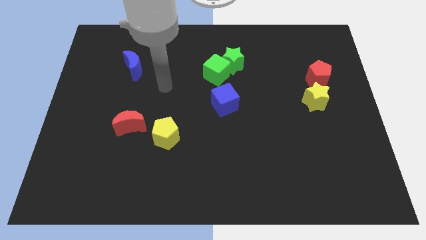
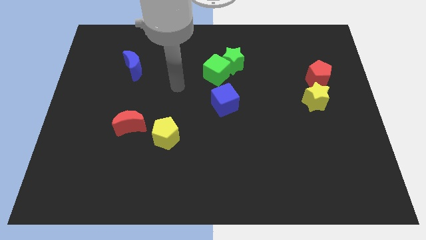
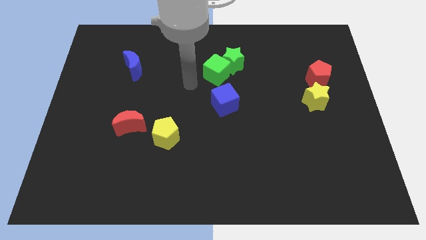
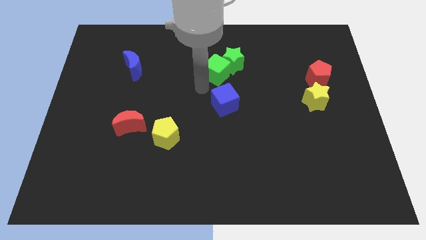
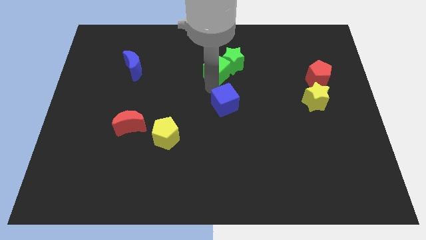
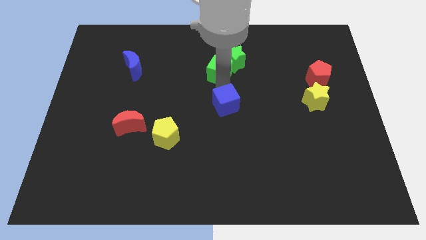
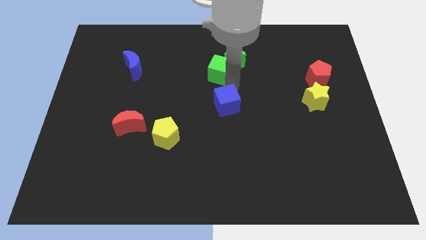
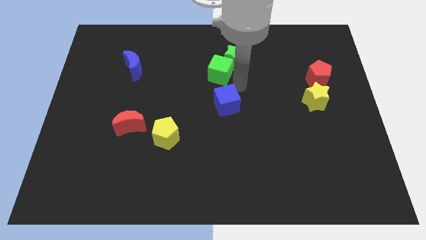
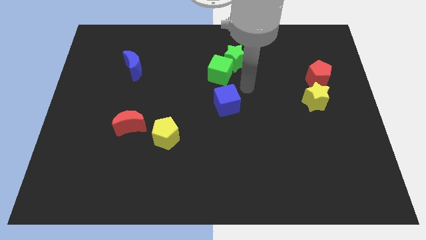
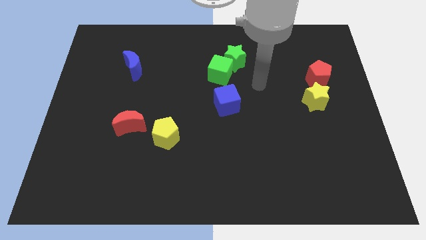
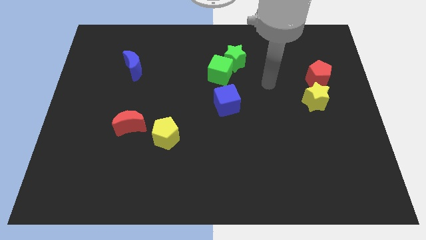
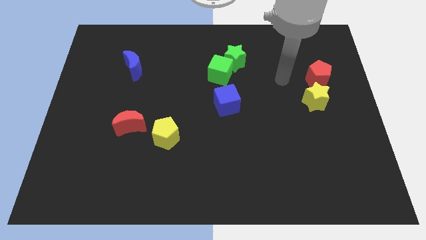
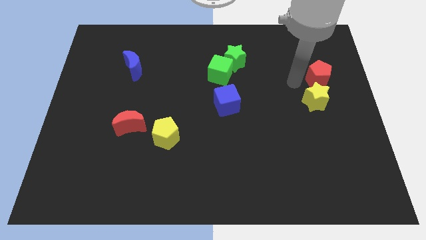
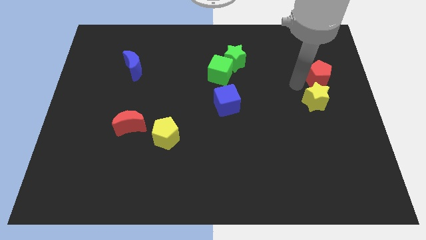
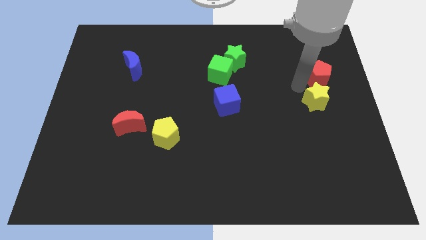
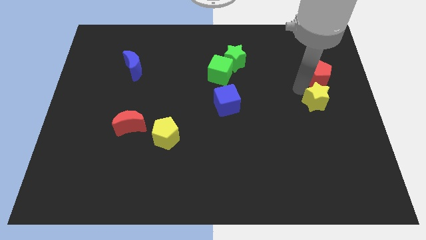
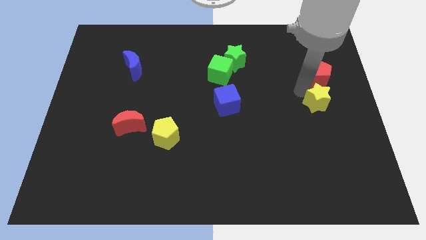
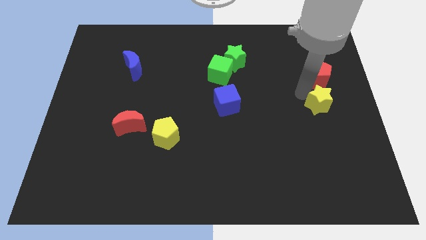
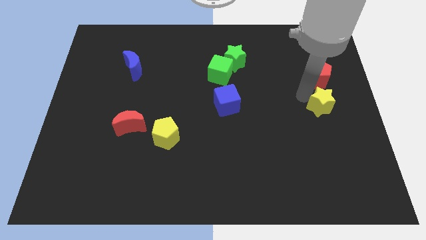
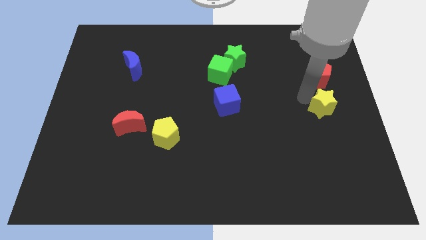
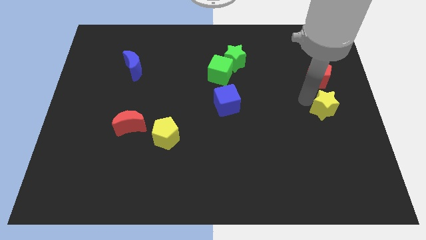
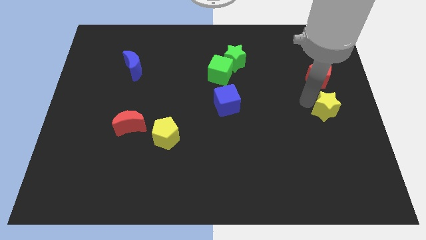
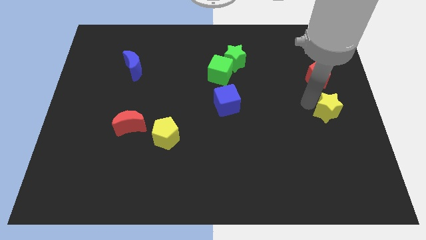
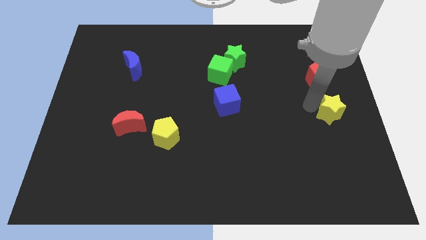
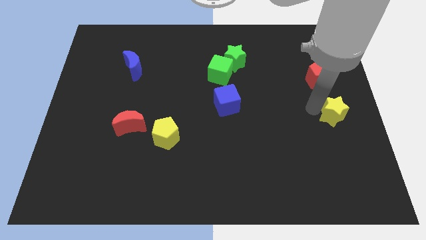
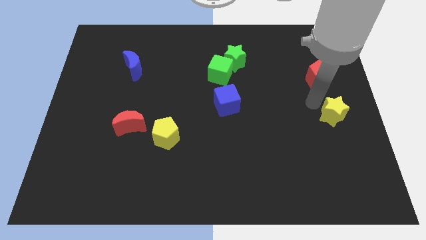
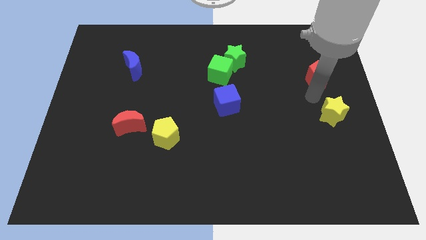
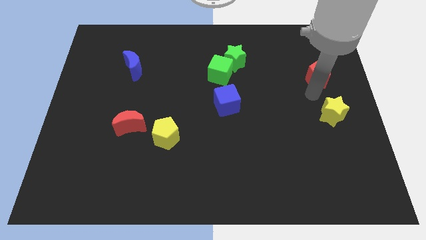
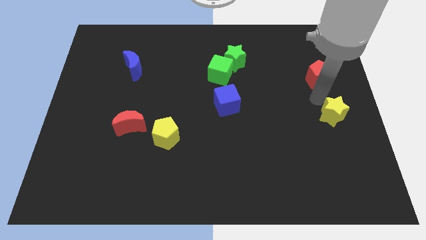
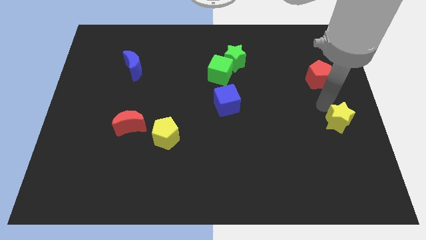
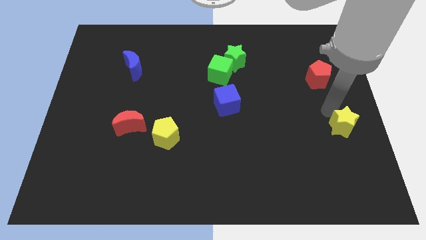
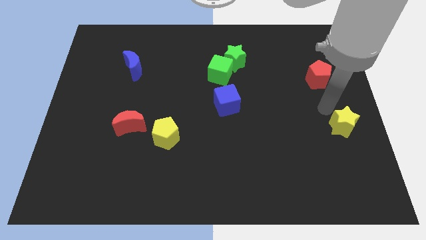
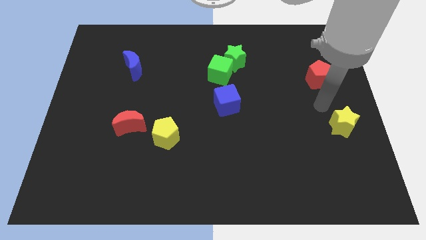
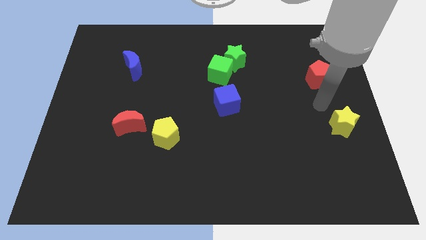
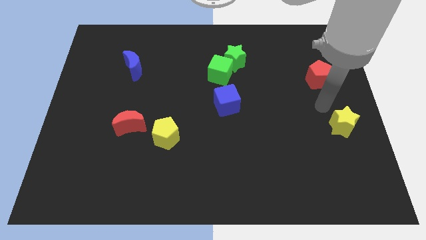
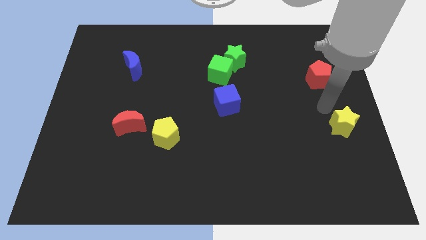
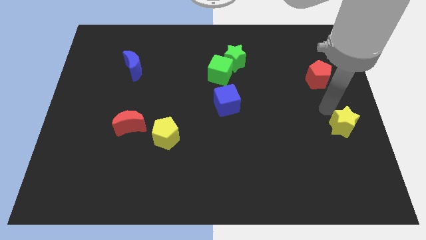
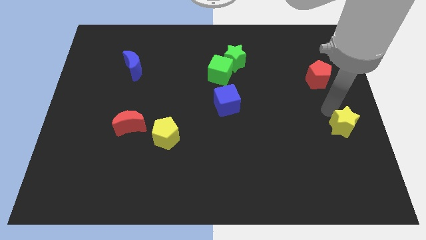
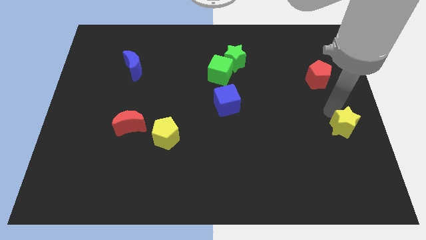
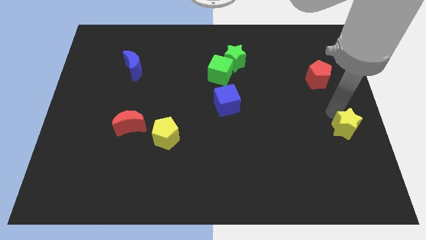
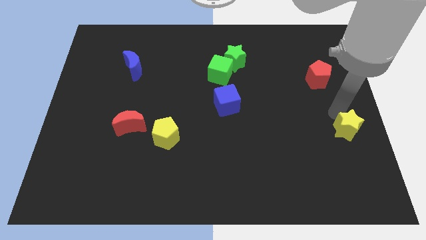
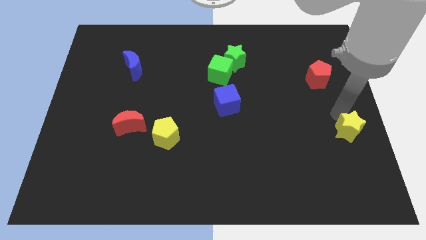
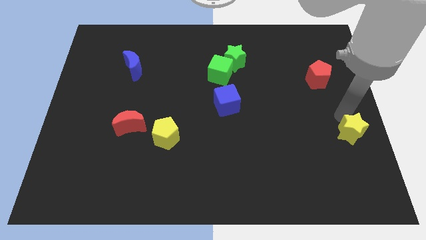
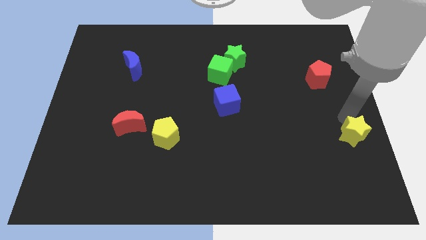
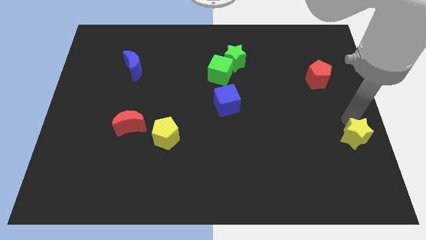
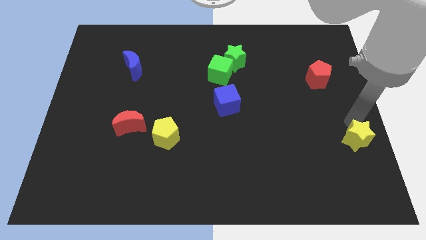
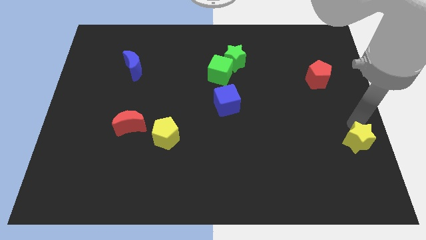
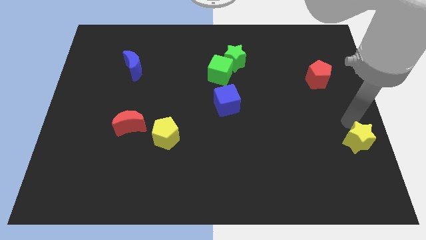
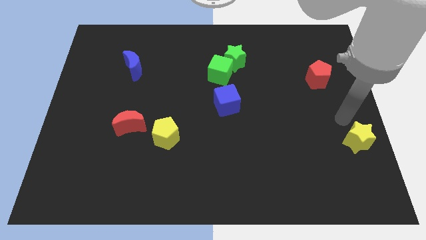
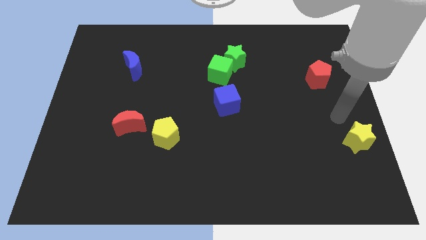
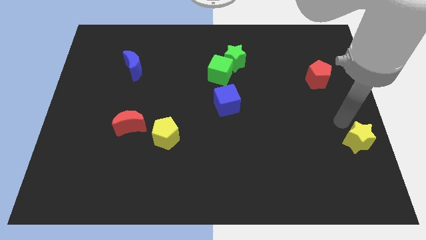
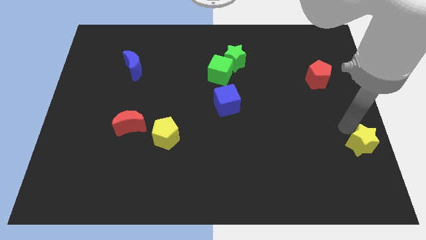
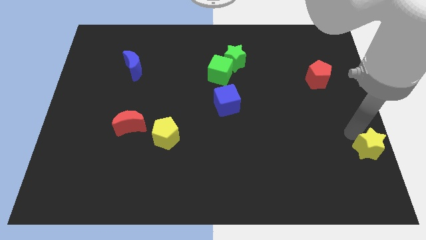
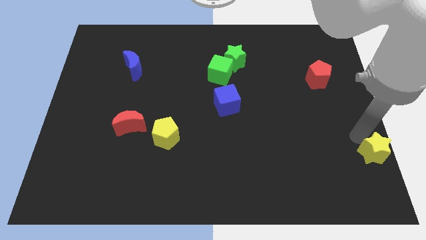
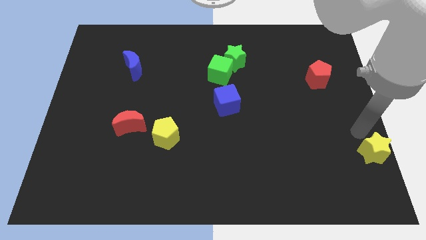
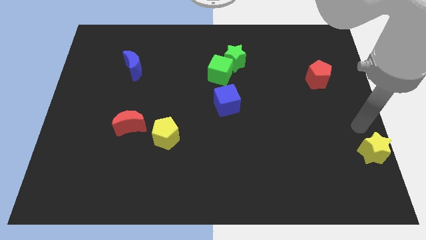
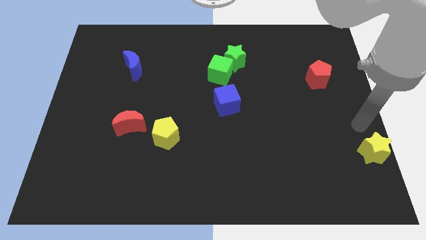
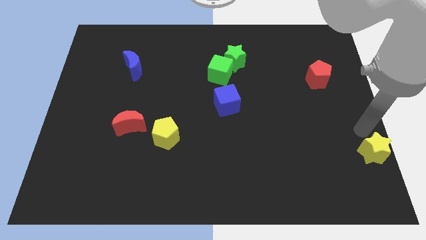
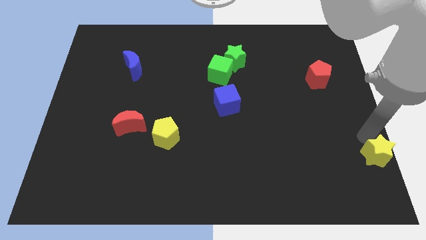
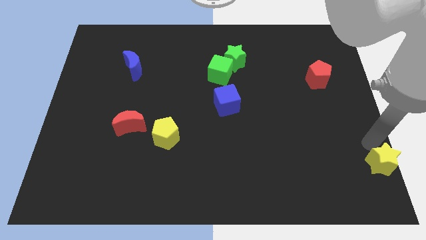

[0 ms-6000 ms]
slide the yellow star to the bottom right
